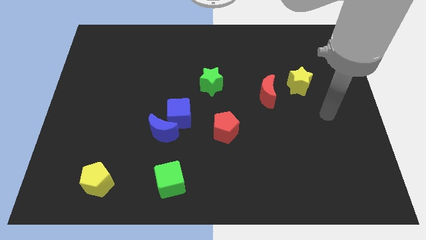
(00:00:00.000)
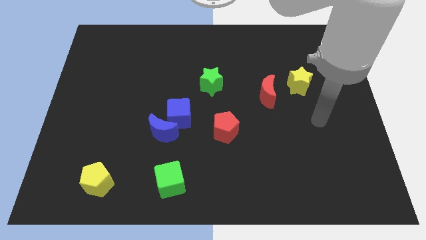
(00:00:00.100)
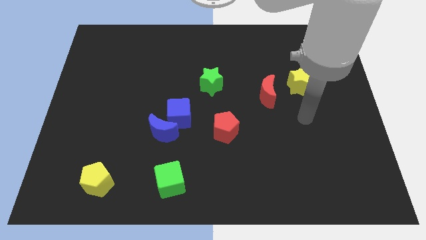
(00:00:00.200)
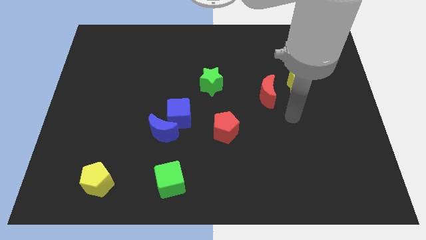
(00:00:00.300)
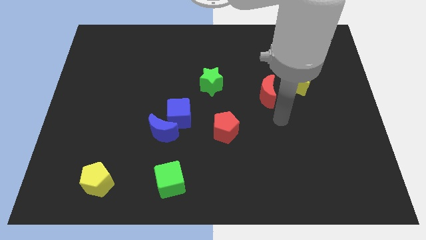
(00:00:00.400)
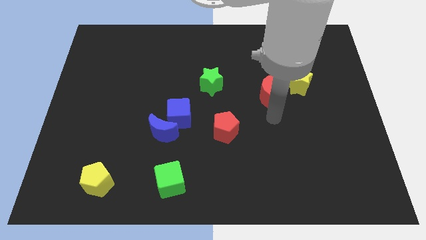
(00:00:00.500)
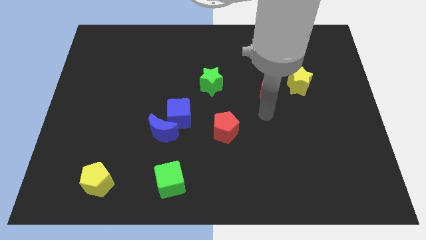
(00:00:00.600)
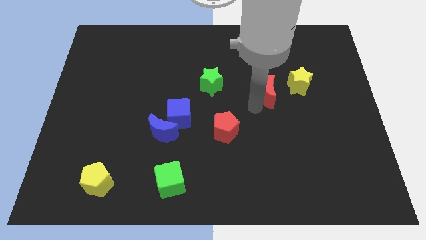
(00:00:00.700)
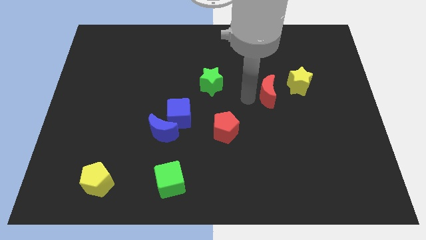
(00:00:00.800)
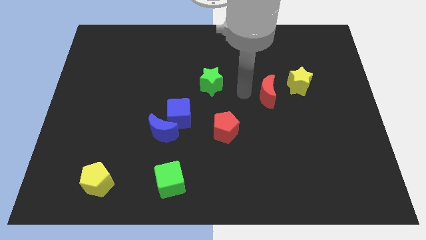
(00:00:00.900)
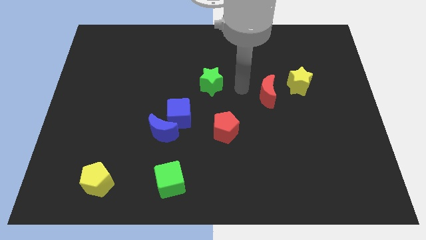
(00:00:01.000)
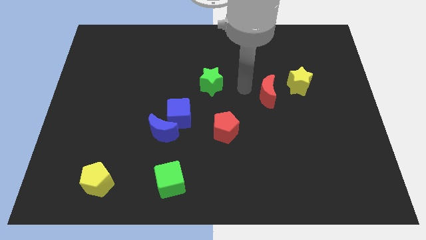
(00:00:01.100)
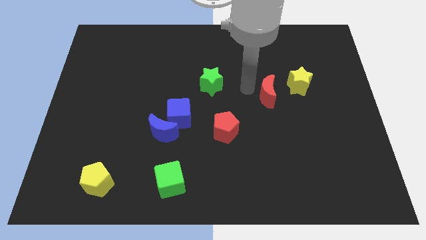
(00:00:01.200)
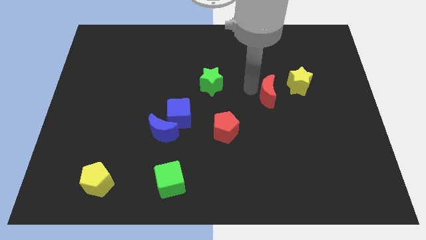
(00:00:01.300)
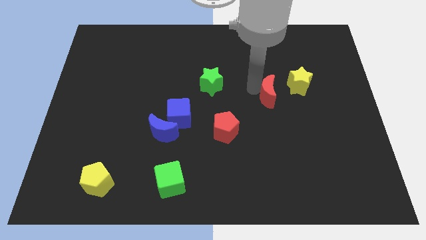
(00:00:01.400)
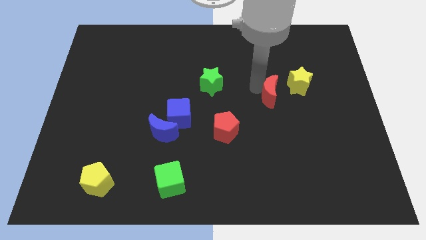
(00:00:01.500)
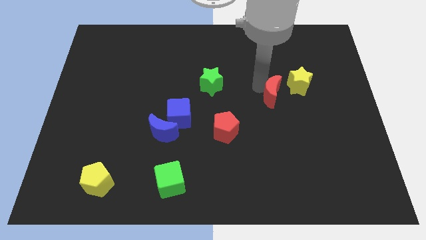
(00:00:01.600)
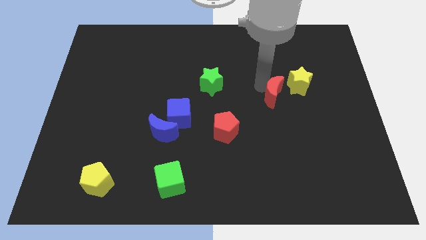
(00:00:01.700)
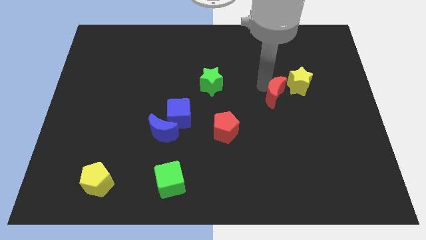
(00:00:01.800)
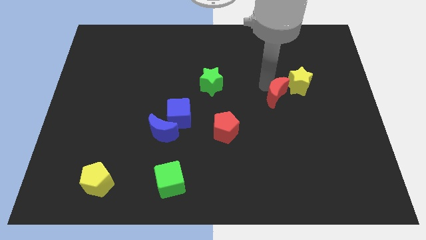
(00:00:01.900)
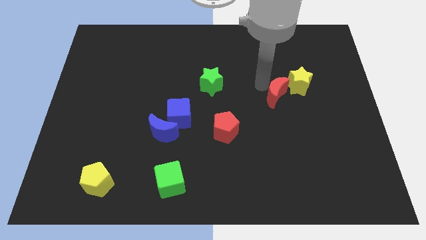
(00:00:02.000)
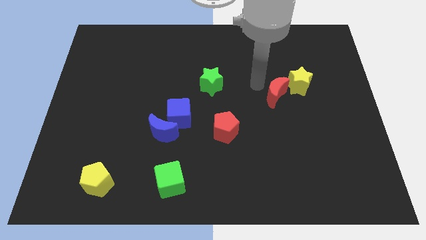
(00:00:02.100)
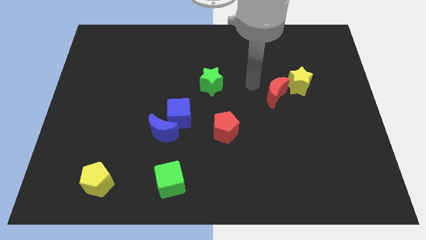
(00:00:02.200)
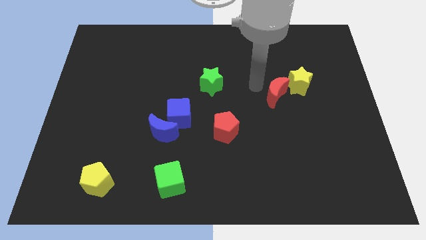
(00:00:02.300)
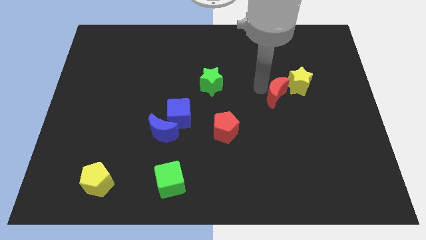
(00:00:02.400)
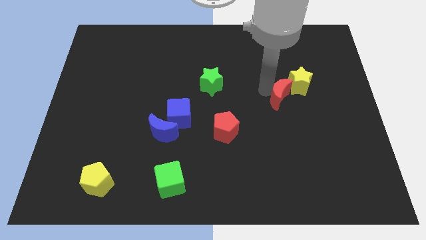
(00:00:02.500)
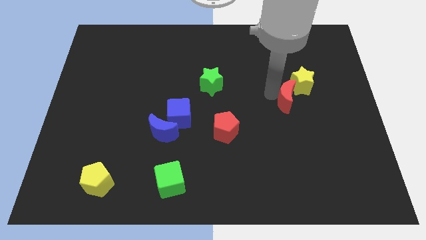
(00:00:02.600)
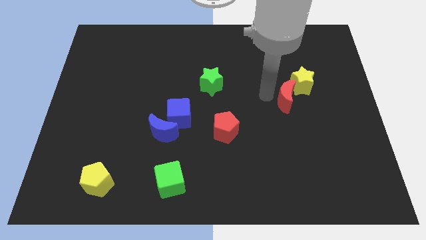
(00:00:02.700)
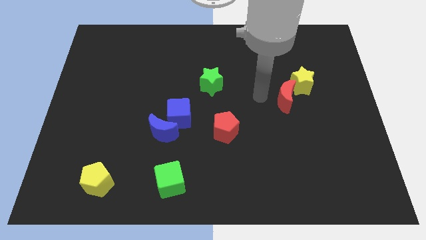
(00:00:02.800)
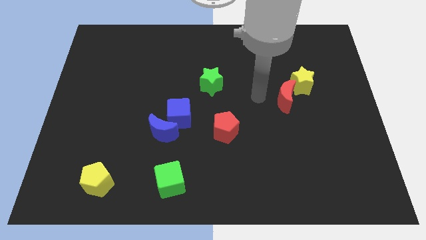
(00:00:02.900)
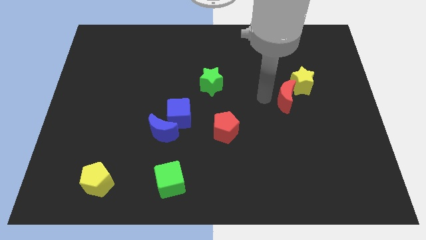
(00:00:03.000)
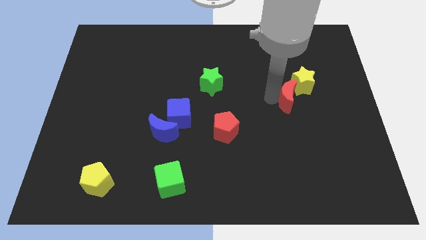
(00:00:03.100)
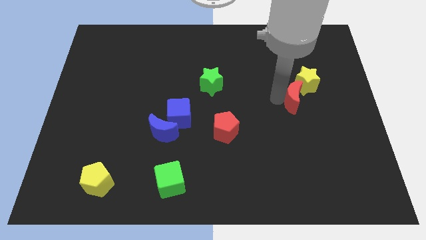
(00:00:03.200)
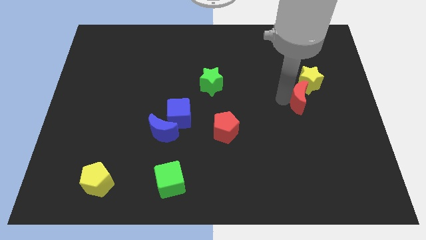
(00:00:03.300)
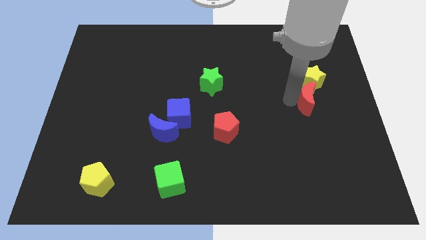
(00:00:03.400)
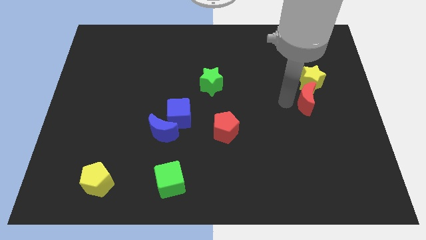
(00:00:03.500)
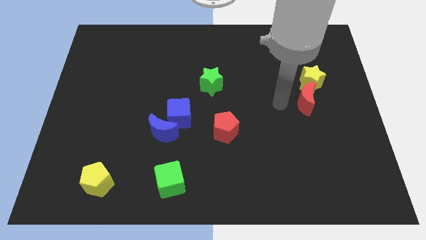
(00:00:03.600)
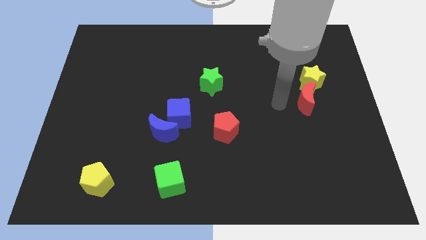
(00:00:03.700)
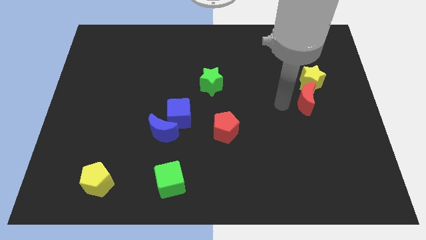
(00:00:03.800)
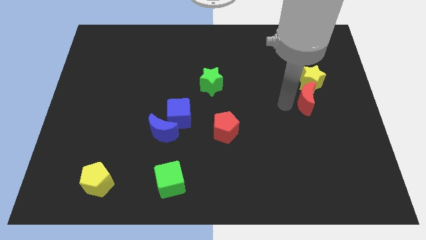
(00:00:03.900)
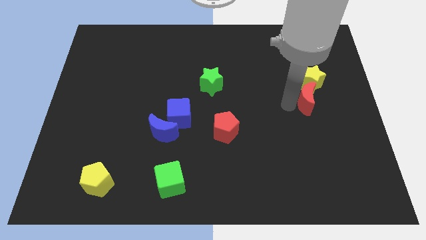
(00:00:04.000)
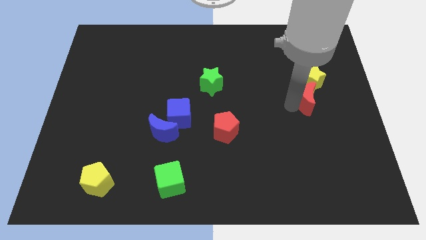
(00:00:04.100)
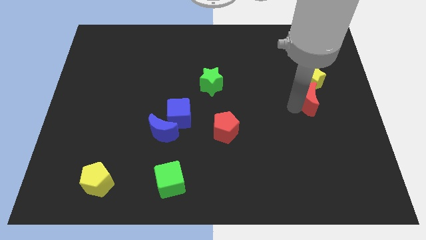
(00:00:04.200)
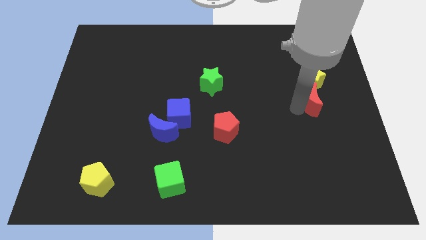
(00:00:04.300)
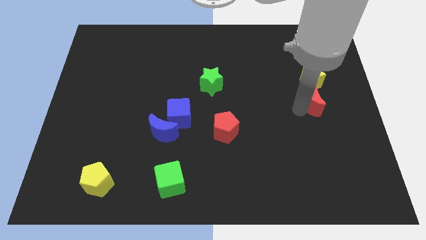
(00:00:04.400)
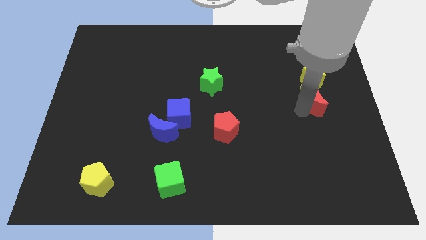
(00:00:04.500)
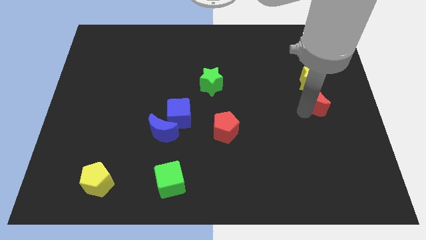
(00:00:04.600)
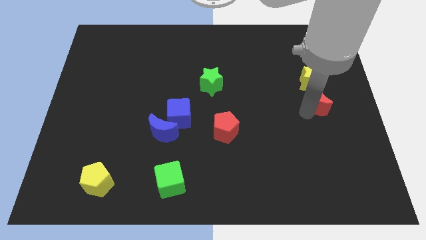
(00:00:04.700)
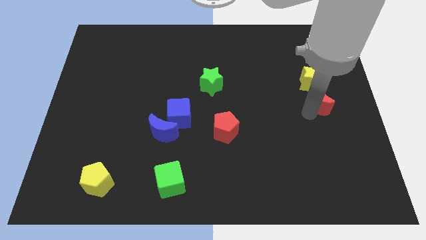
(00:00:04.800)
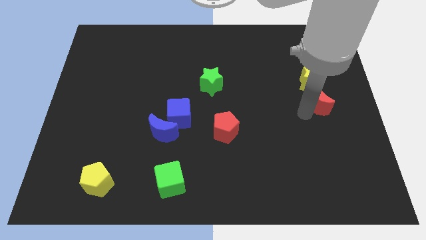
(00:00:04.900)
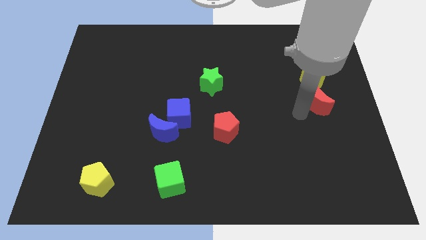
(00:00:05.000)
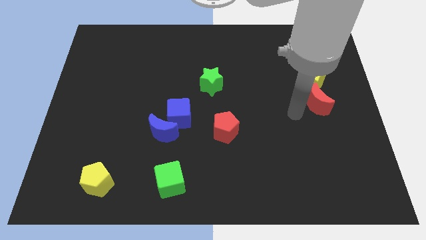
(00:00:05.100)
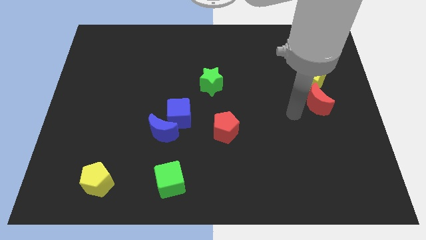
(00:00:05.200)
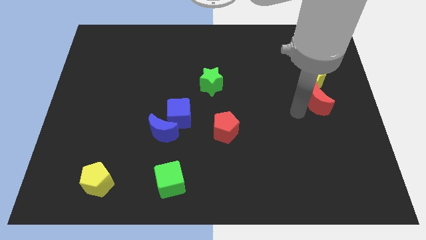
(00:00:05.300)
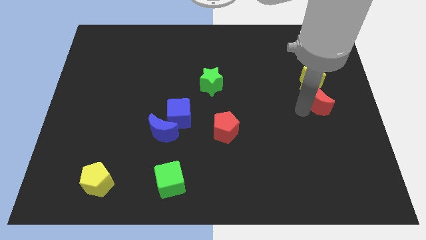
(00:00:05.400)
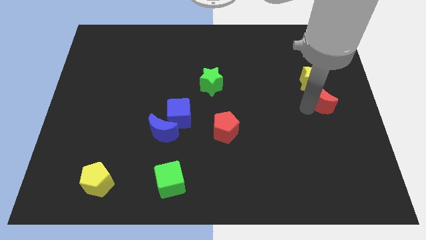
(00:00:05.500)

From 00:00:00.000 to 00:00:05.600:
move the red moon to the right side

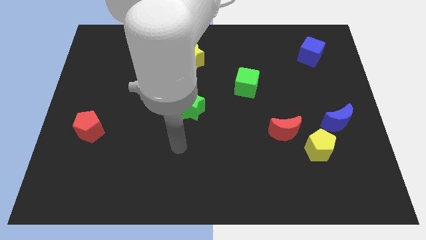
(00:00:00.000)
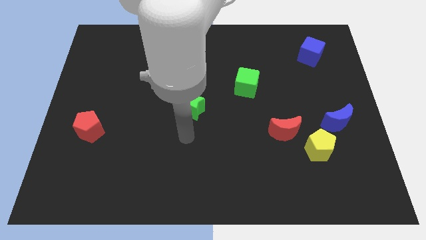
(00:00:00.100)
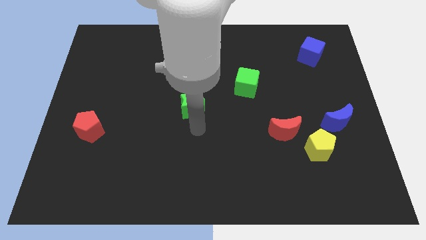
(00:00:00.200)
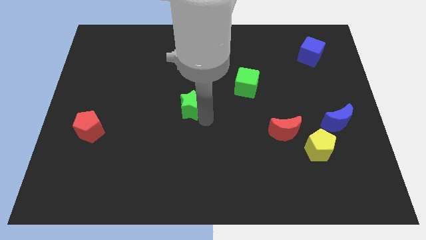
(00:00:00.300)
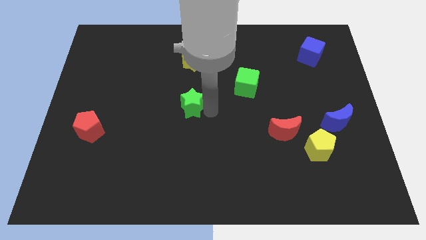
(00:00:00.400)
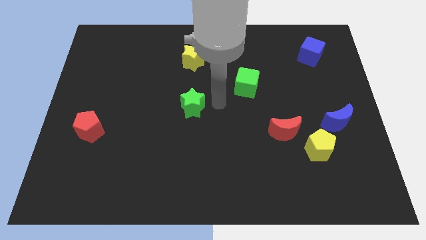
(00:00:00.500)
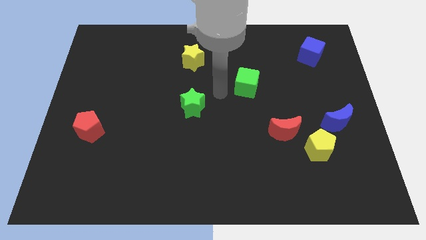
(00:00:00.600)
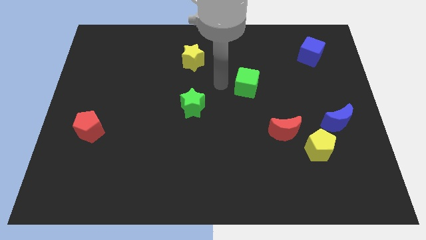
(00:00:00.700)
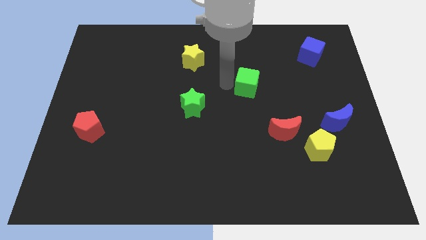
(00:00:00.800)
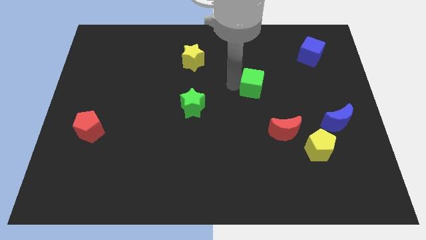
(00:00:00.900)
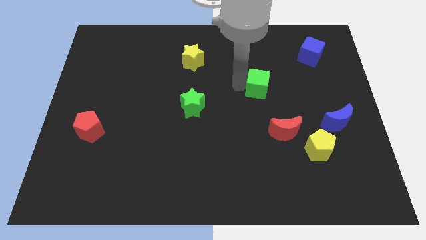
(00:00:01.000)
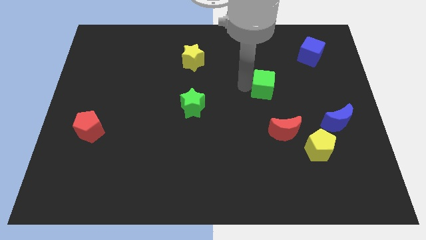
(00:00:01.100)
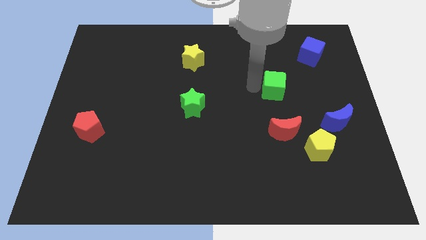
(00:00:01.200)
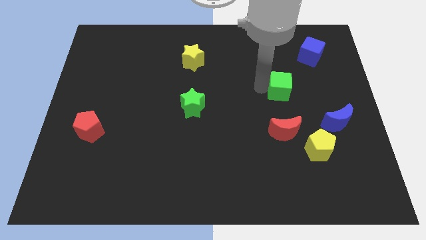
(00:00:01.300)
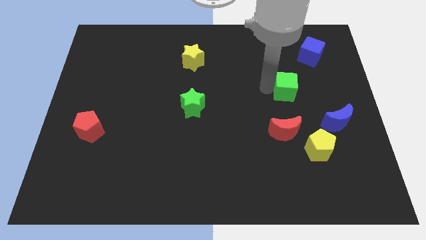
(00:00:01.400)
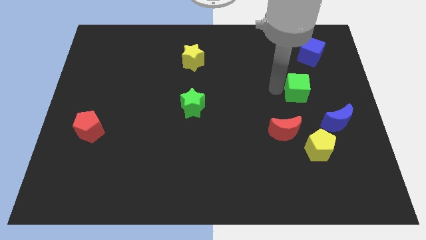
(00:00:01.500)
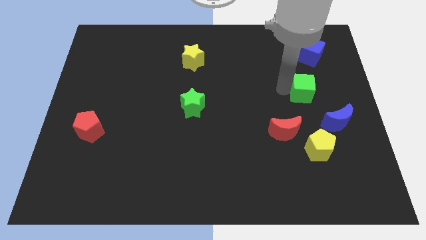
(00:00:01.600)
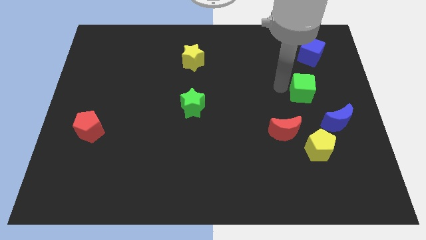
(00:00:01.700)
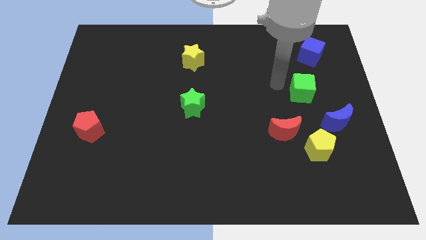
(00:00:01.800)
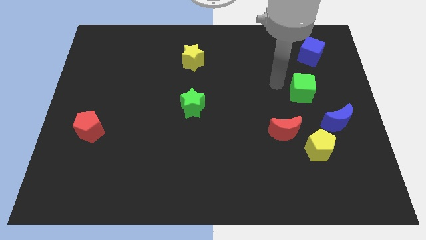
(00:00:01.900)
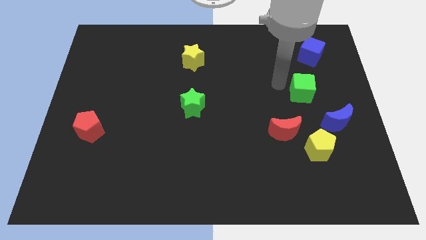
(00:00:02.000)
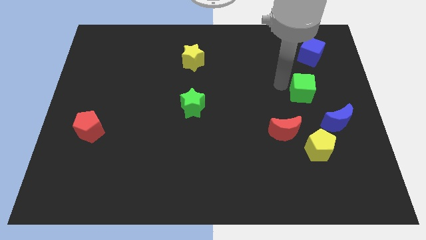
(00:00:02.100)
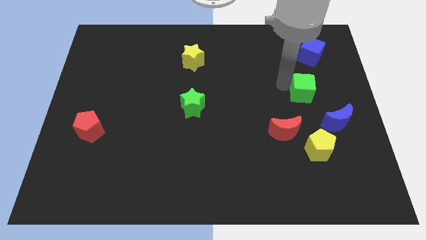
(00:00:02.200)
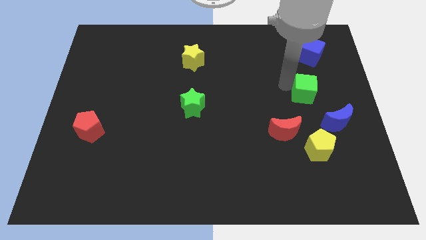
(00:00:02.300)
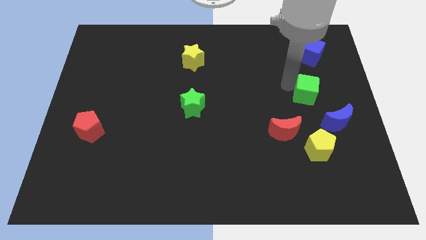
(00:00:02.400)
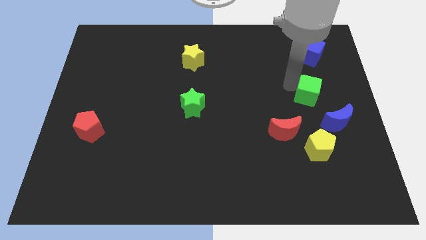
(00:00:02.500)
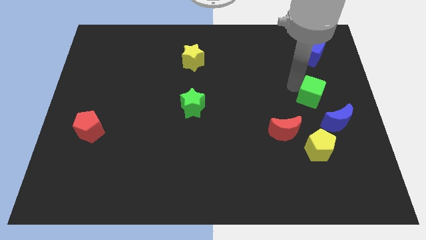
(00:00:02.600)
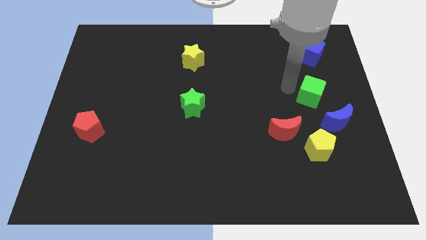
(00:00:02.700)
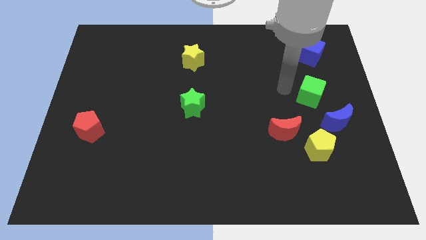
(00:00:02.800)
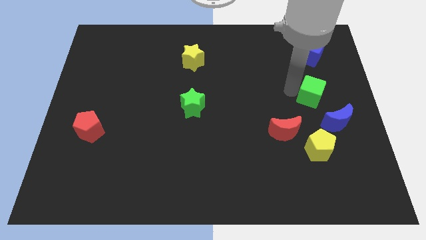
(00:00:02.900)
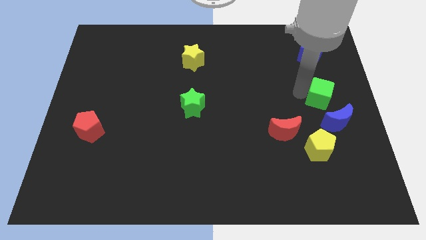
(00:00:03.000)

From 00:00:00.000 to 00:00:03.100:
slide the green cube to the right side
